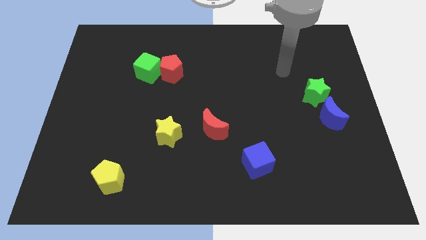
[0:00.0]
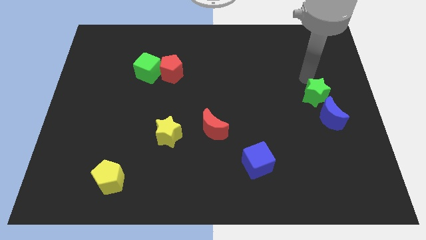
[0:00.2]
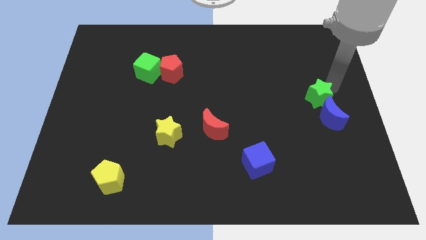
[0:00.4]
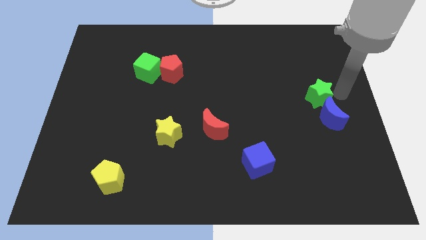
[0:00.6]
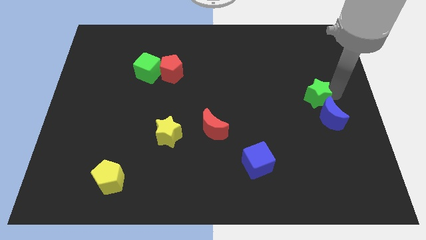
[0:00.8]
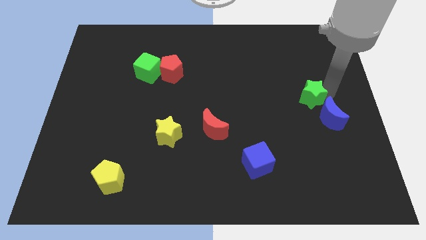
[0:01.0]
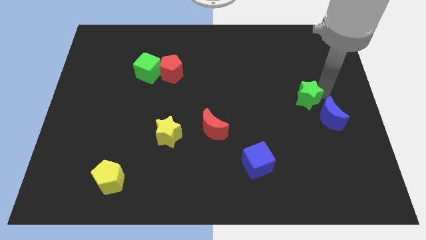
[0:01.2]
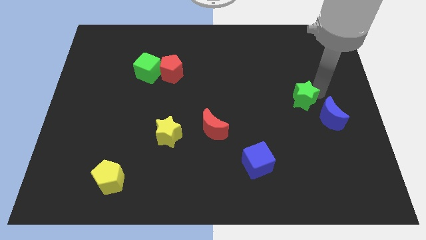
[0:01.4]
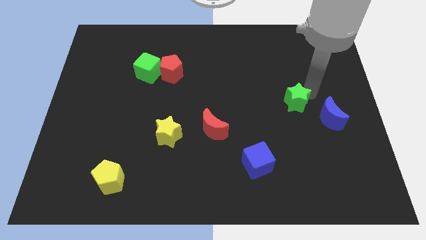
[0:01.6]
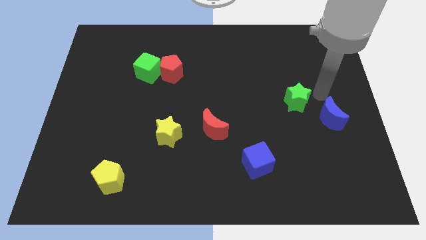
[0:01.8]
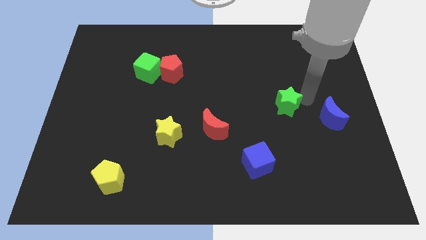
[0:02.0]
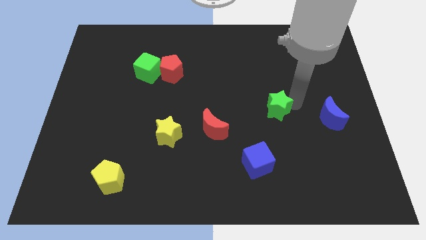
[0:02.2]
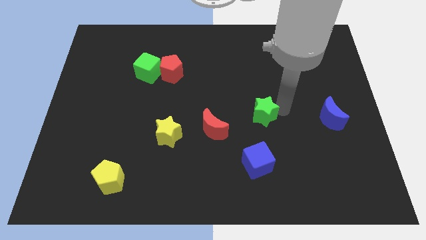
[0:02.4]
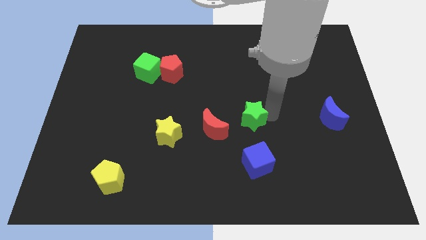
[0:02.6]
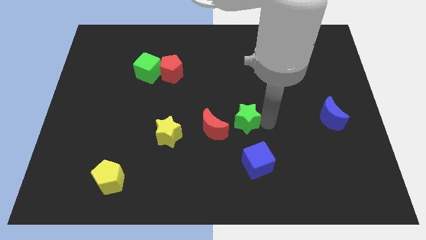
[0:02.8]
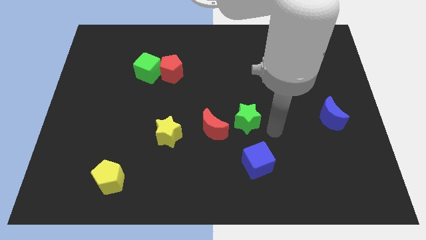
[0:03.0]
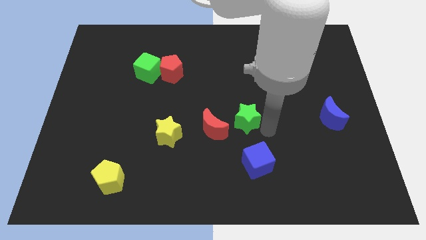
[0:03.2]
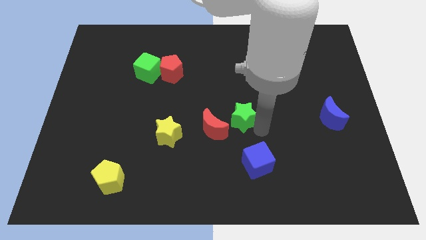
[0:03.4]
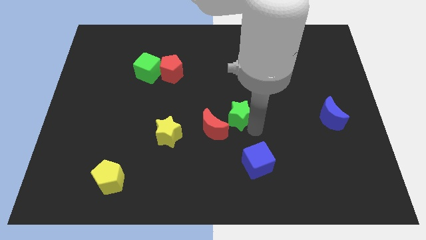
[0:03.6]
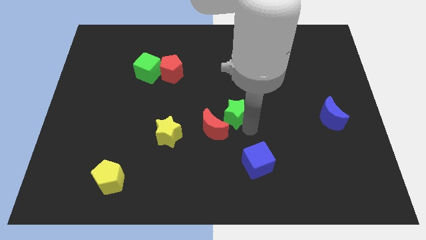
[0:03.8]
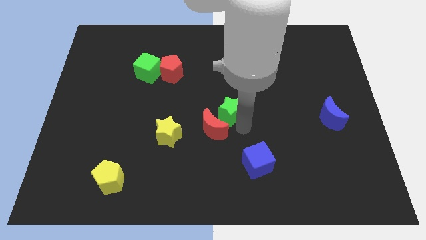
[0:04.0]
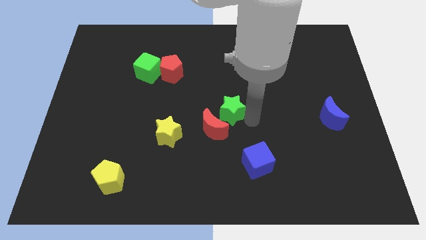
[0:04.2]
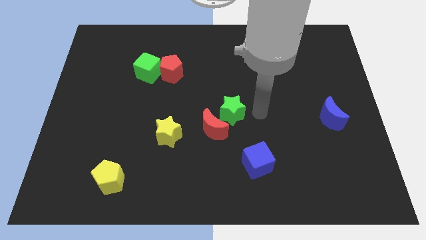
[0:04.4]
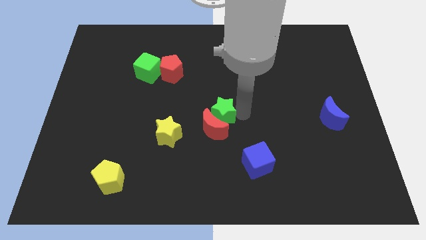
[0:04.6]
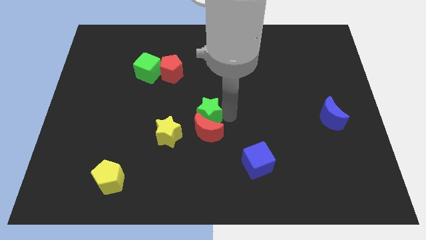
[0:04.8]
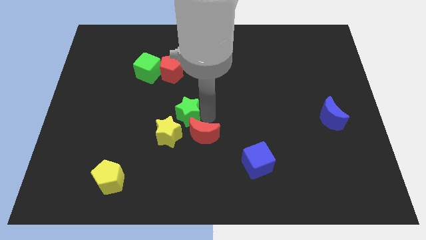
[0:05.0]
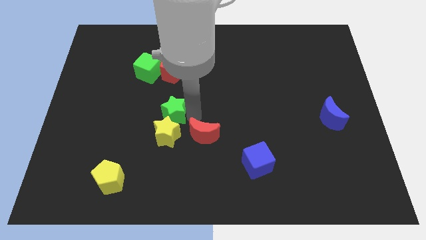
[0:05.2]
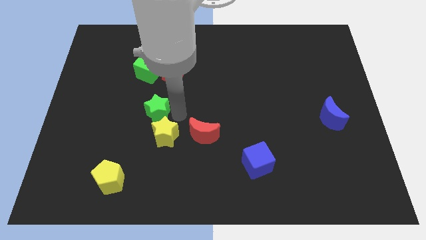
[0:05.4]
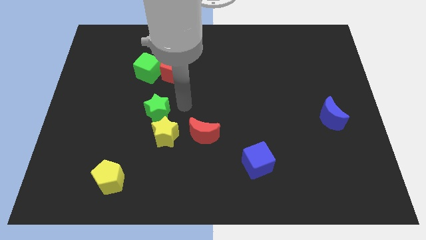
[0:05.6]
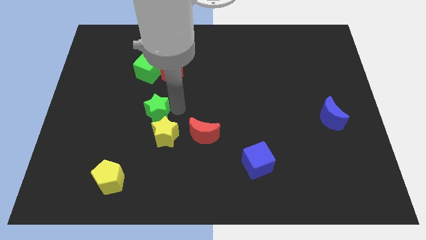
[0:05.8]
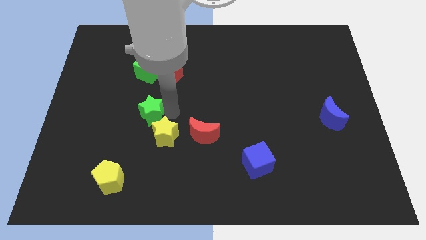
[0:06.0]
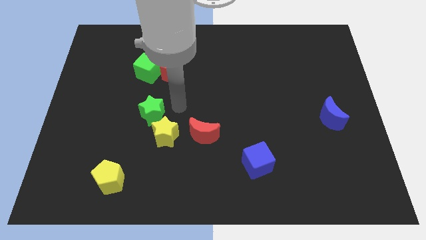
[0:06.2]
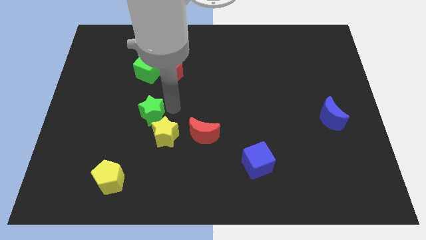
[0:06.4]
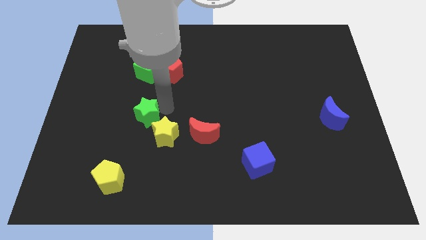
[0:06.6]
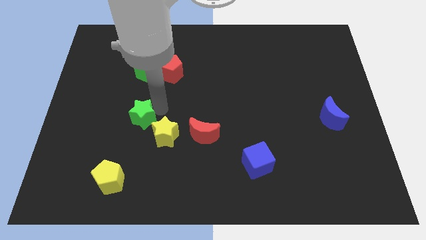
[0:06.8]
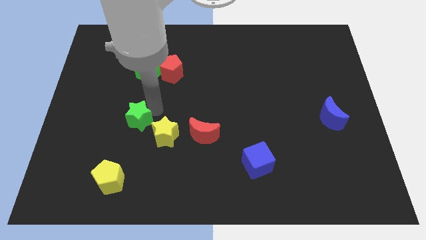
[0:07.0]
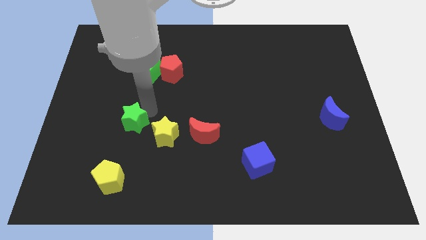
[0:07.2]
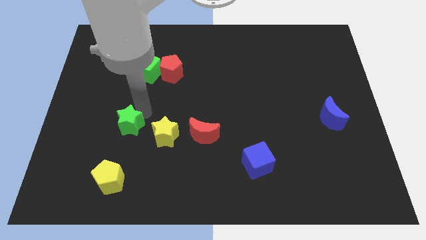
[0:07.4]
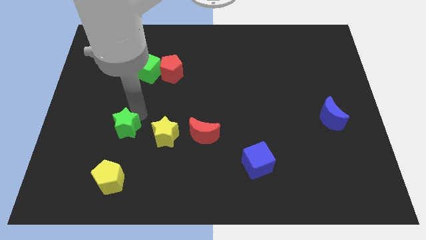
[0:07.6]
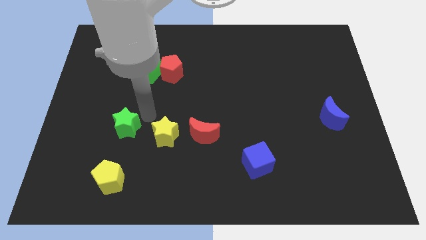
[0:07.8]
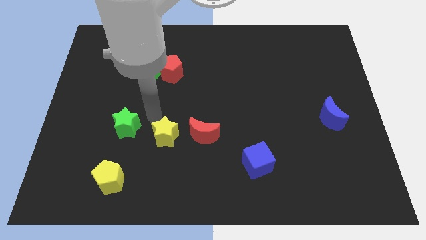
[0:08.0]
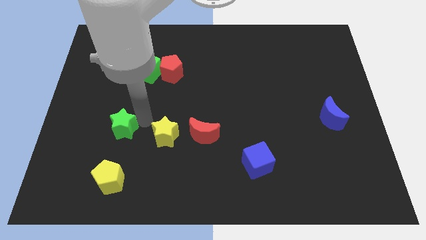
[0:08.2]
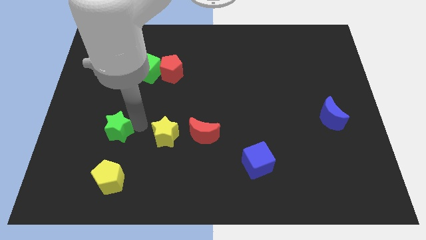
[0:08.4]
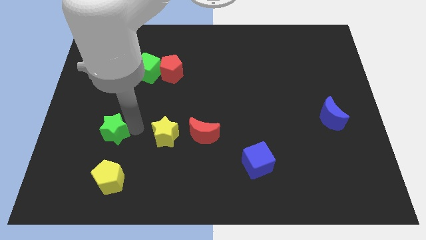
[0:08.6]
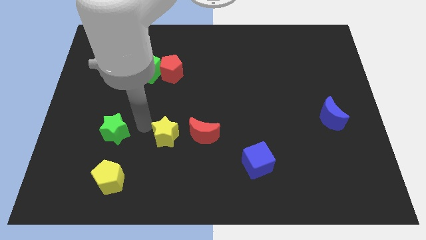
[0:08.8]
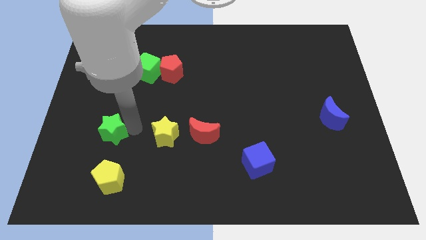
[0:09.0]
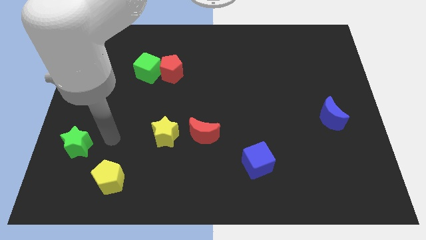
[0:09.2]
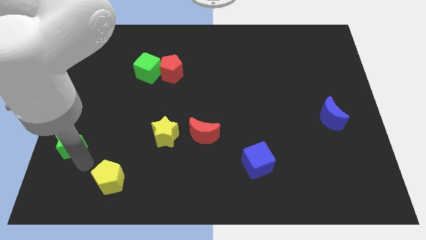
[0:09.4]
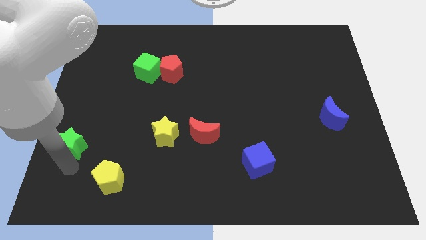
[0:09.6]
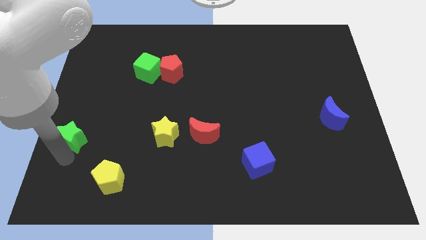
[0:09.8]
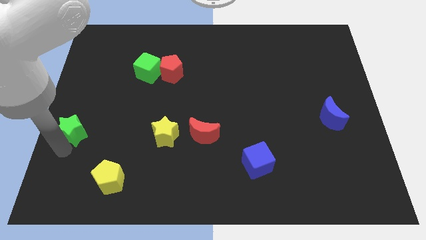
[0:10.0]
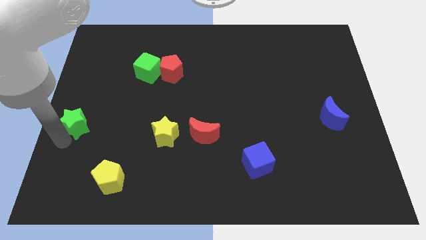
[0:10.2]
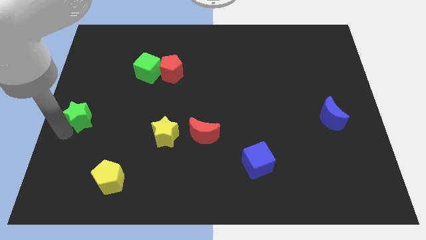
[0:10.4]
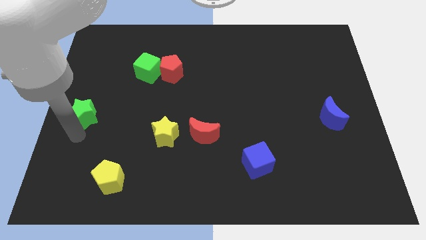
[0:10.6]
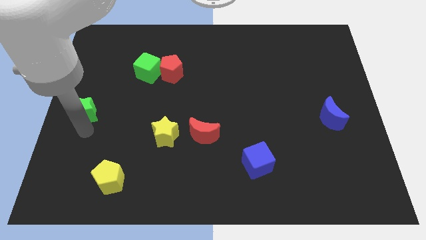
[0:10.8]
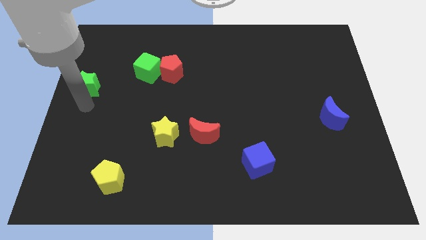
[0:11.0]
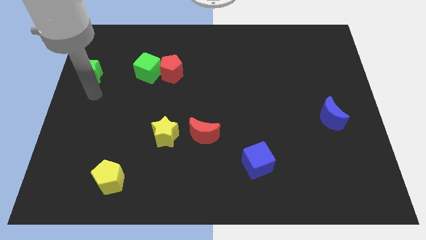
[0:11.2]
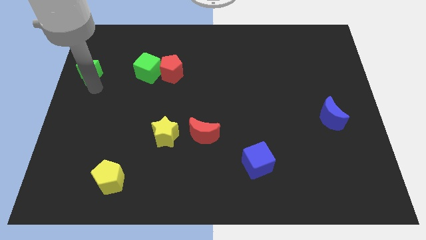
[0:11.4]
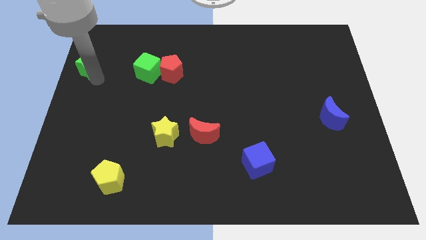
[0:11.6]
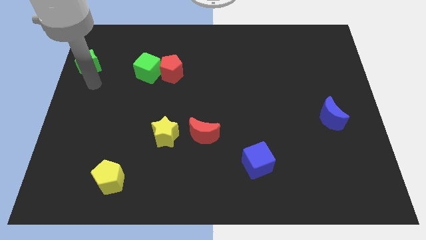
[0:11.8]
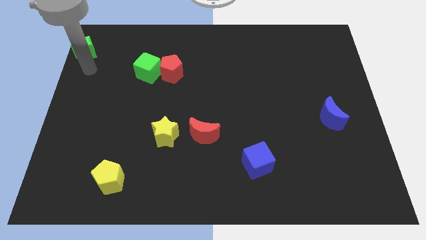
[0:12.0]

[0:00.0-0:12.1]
slide the green star to the top left

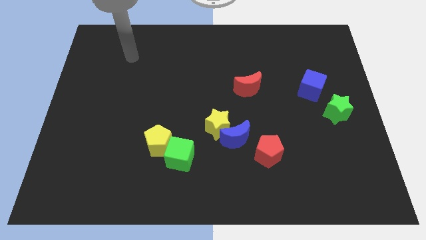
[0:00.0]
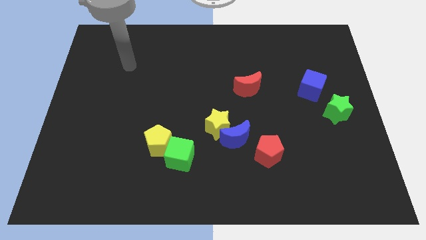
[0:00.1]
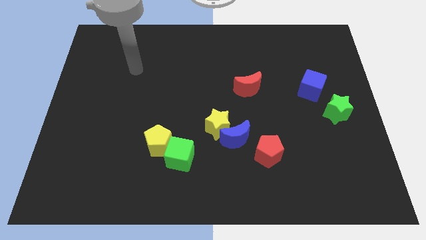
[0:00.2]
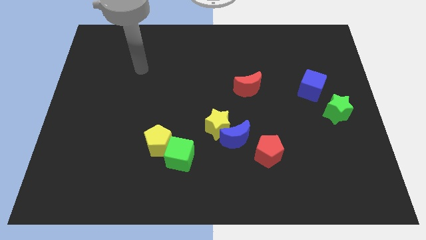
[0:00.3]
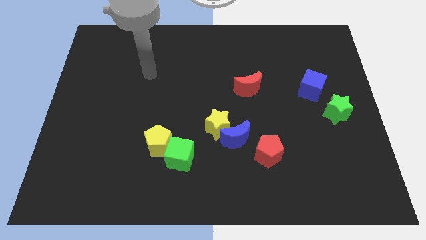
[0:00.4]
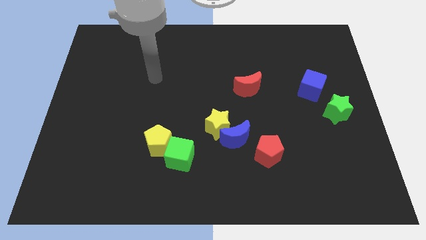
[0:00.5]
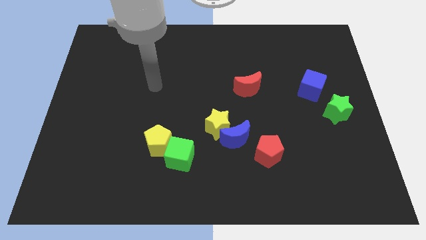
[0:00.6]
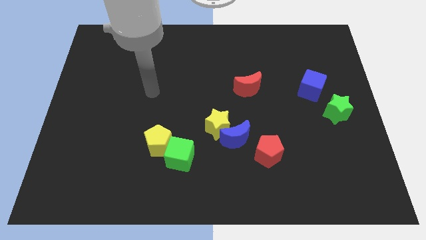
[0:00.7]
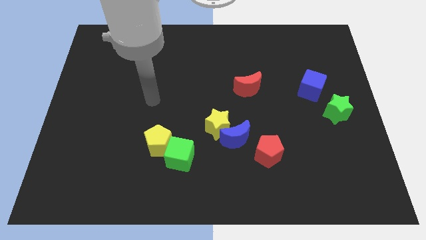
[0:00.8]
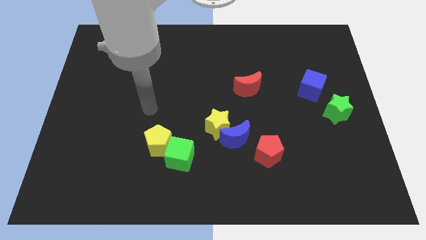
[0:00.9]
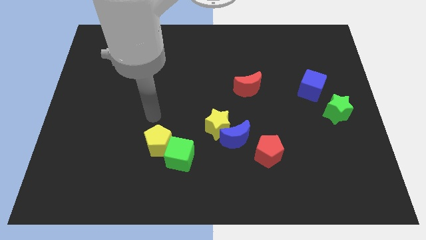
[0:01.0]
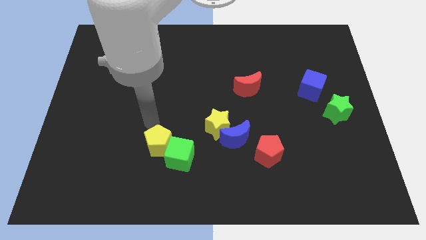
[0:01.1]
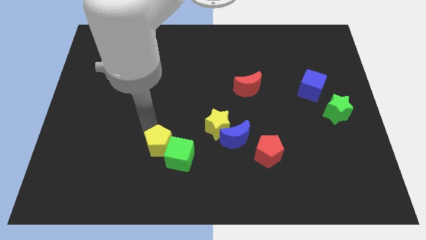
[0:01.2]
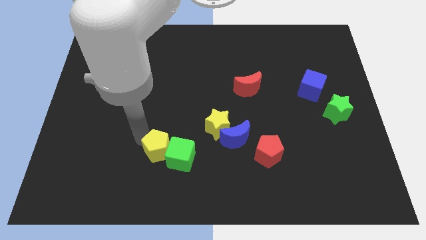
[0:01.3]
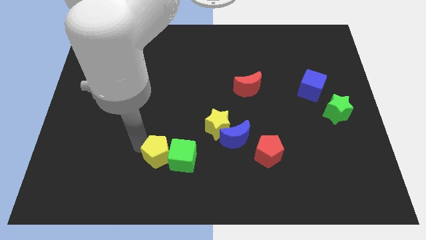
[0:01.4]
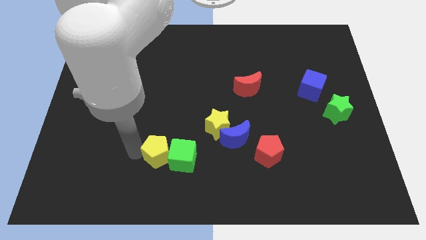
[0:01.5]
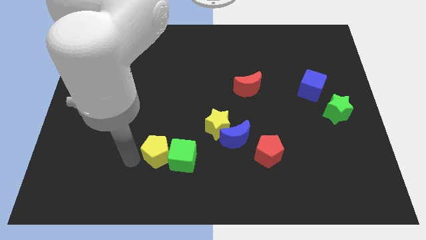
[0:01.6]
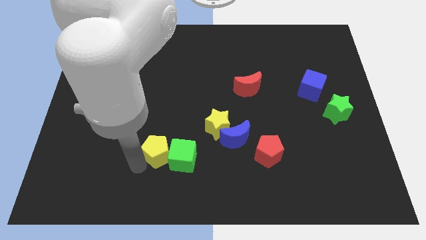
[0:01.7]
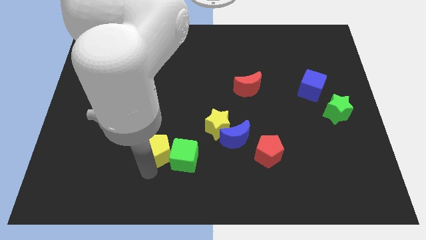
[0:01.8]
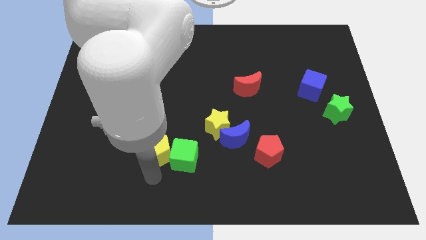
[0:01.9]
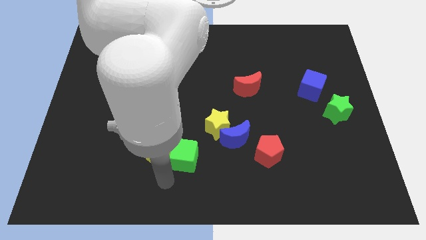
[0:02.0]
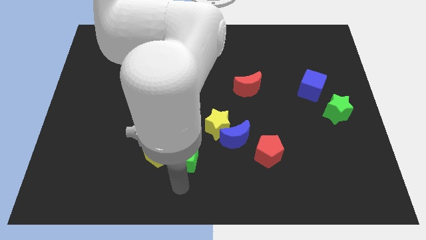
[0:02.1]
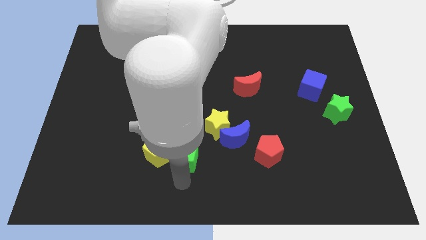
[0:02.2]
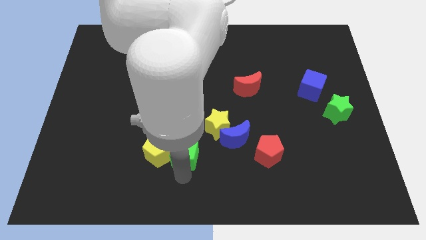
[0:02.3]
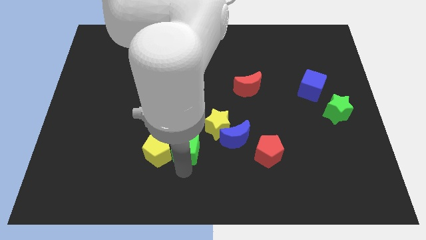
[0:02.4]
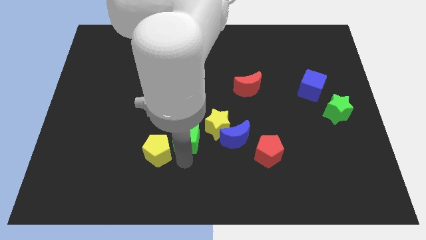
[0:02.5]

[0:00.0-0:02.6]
move the green cube to the center
